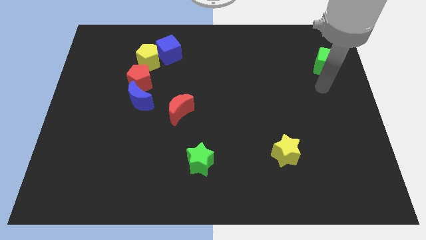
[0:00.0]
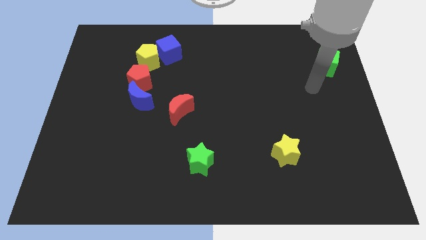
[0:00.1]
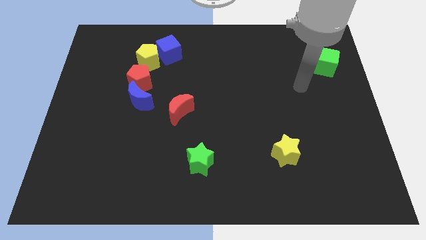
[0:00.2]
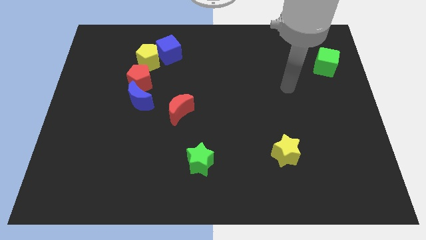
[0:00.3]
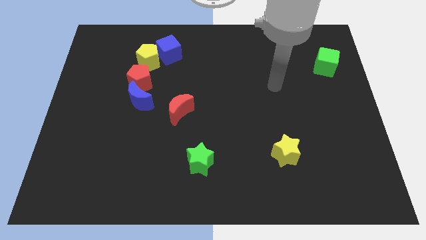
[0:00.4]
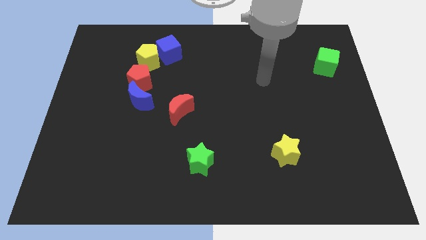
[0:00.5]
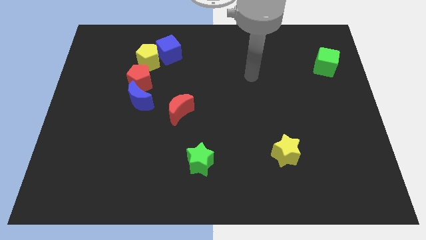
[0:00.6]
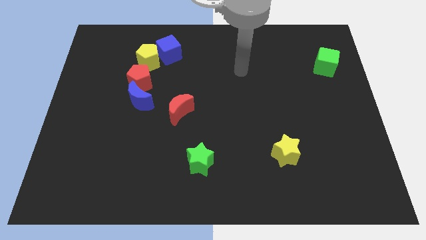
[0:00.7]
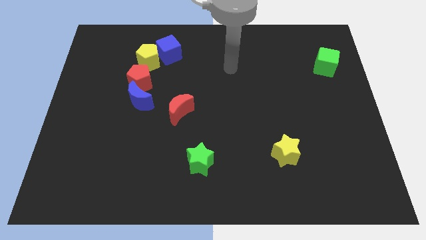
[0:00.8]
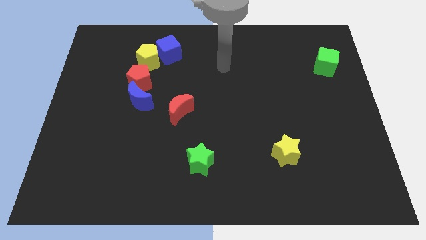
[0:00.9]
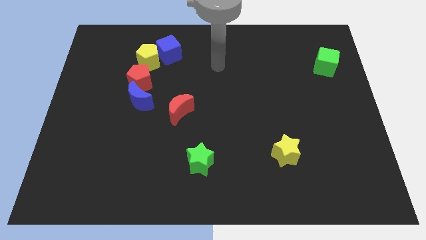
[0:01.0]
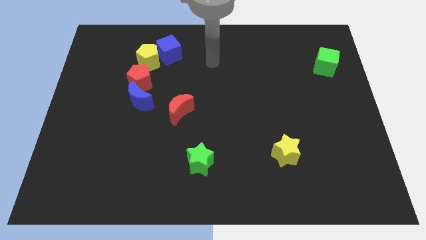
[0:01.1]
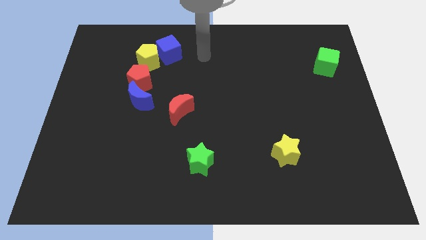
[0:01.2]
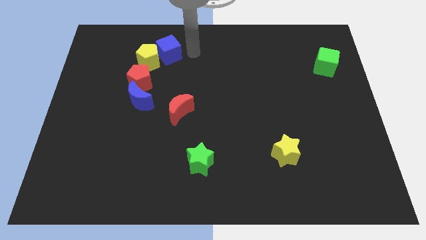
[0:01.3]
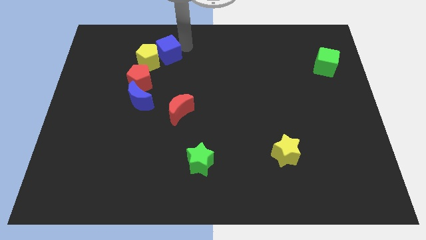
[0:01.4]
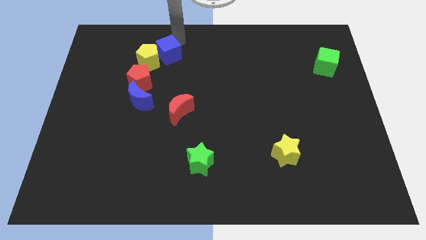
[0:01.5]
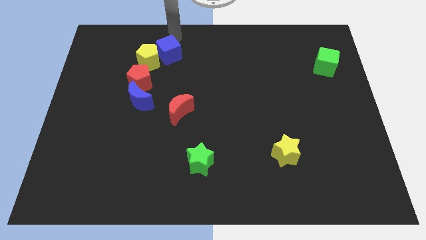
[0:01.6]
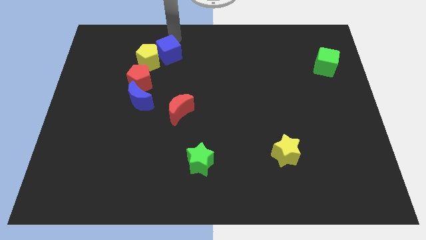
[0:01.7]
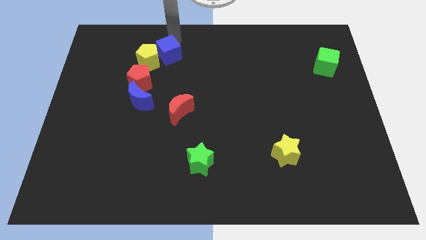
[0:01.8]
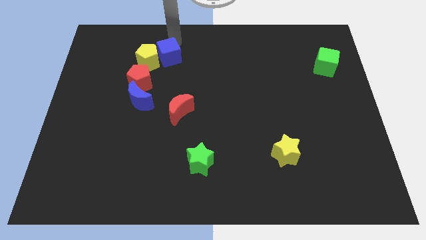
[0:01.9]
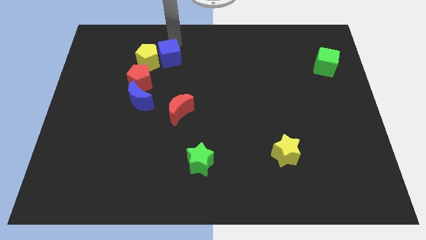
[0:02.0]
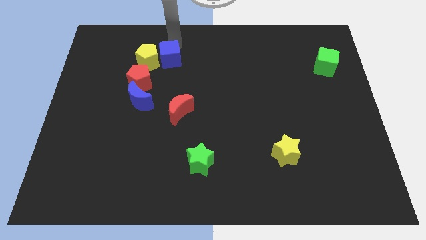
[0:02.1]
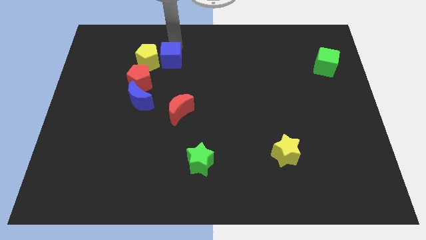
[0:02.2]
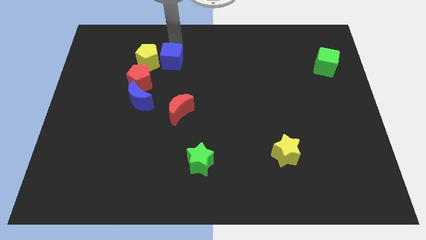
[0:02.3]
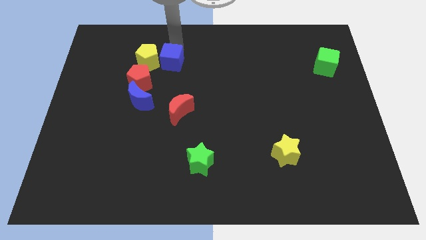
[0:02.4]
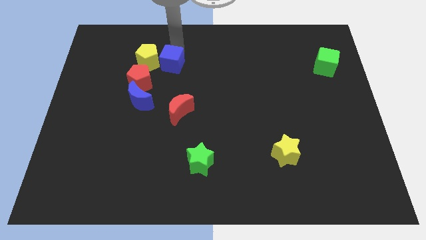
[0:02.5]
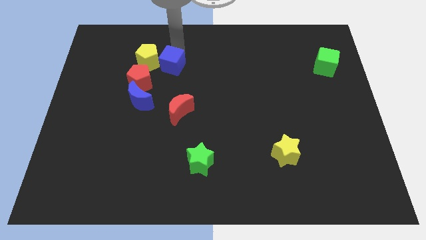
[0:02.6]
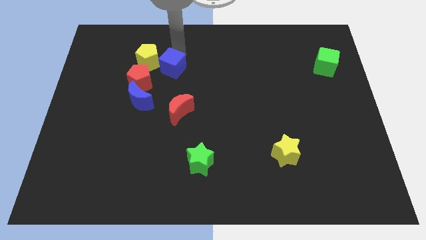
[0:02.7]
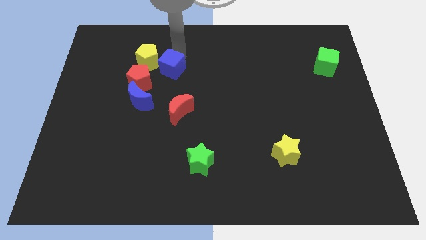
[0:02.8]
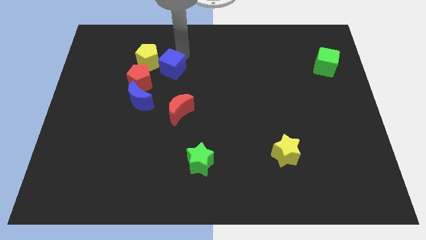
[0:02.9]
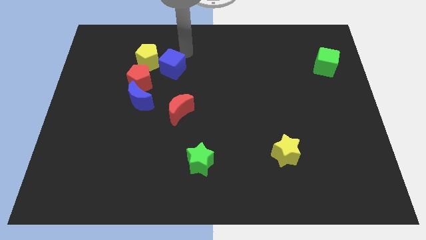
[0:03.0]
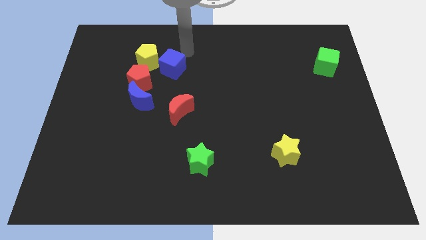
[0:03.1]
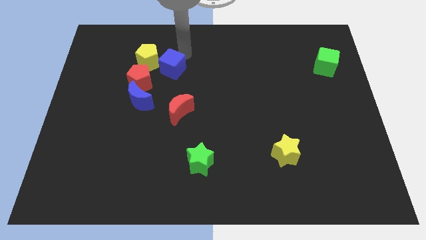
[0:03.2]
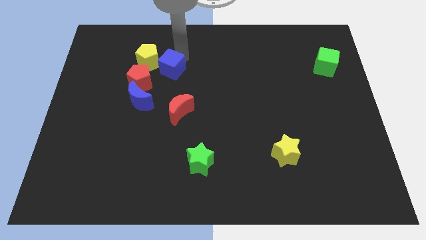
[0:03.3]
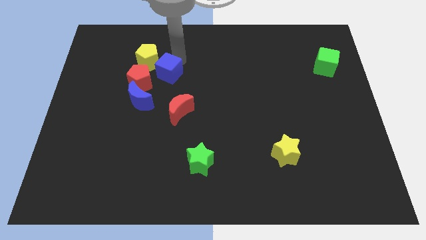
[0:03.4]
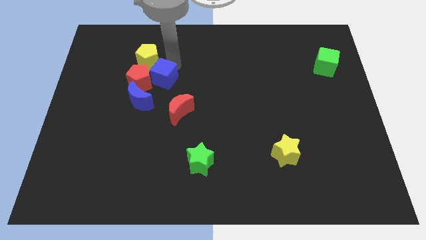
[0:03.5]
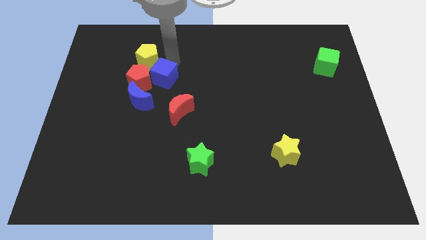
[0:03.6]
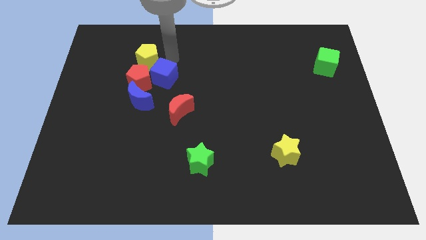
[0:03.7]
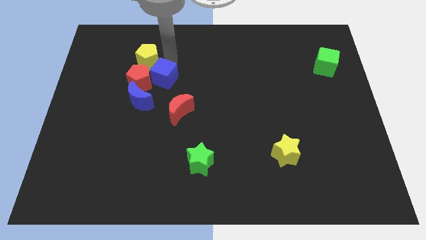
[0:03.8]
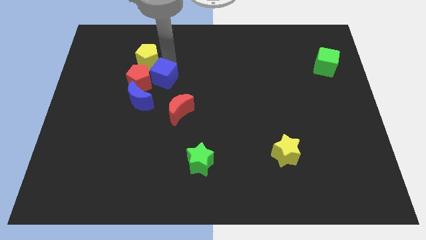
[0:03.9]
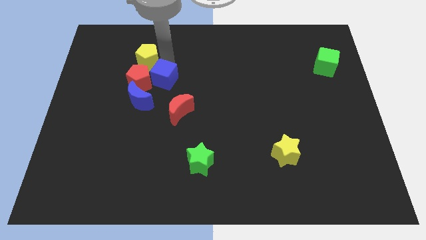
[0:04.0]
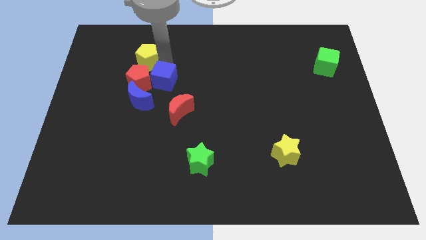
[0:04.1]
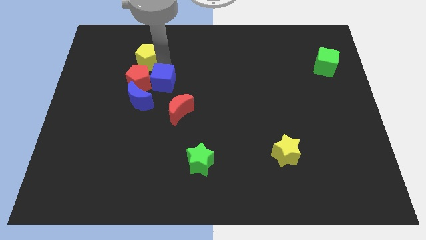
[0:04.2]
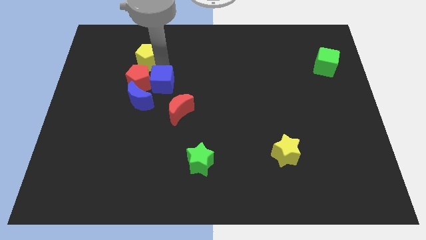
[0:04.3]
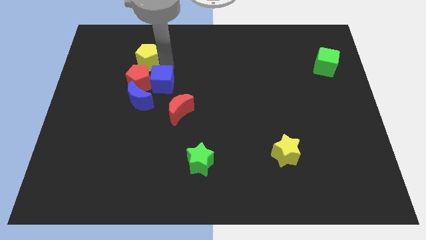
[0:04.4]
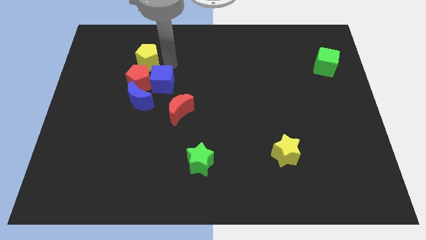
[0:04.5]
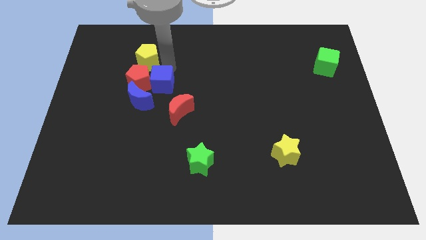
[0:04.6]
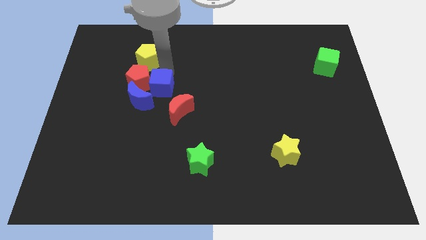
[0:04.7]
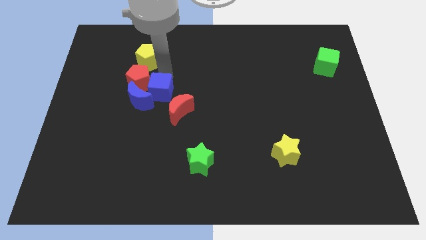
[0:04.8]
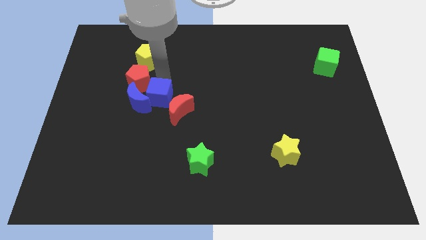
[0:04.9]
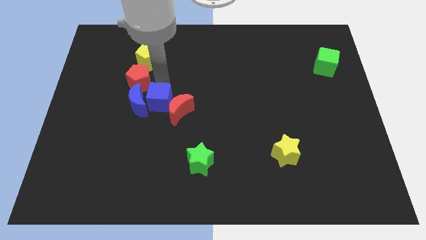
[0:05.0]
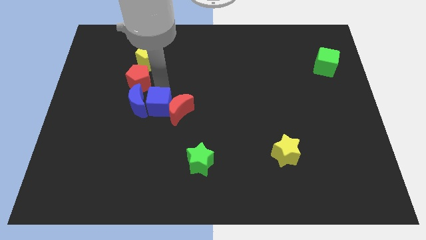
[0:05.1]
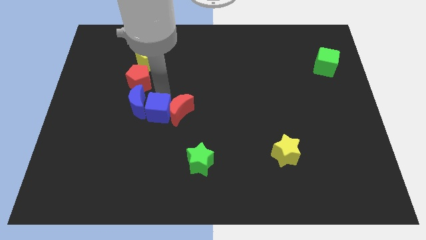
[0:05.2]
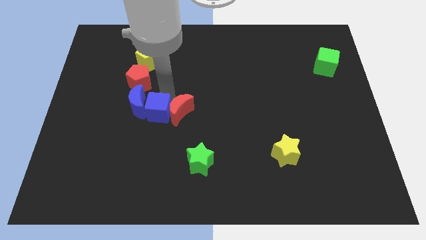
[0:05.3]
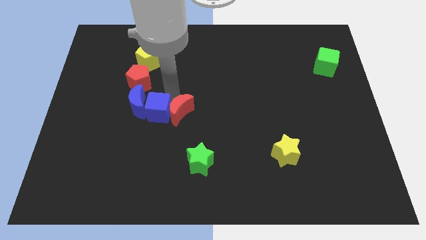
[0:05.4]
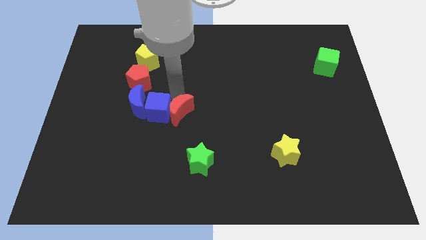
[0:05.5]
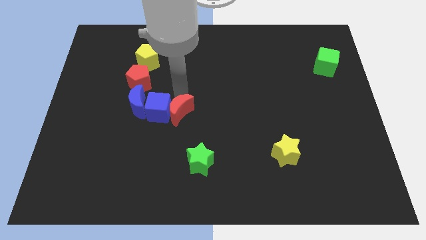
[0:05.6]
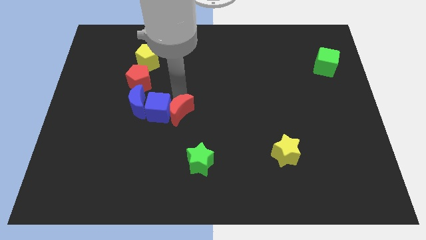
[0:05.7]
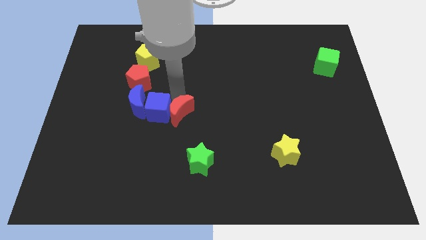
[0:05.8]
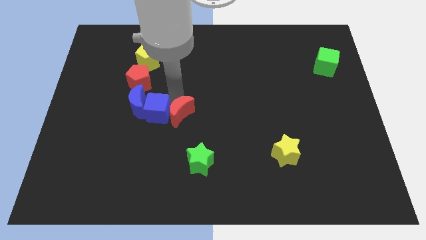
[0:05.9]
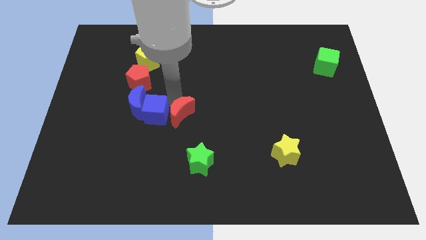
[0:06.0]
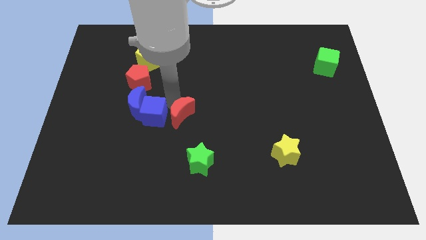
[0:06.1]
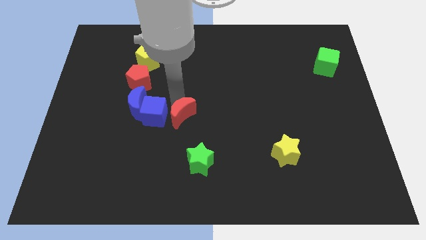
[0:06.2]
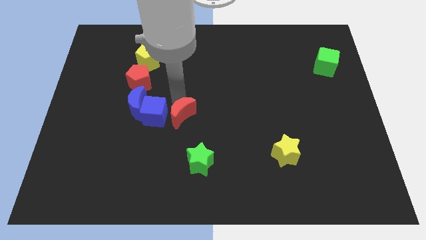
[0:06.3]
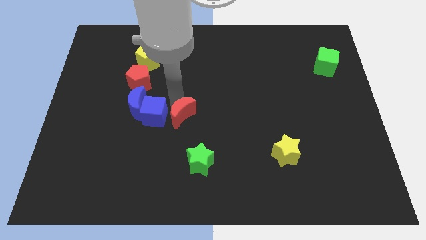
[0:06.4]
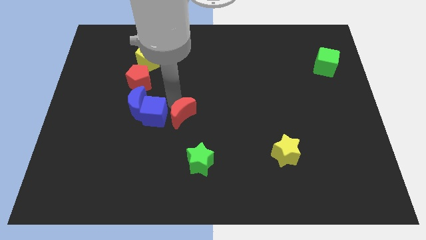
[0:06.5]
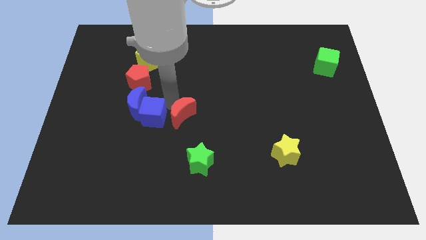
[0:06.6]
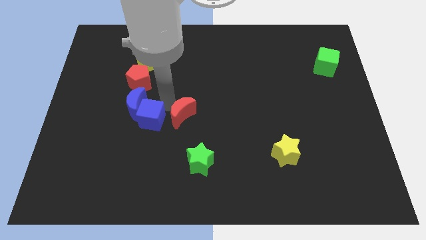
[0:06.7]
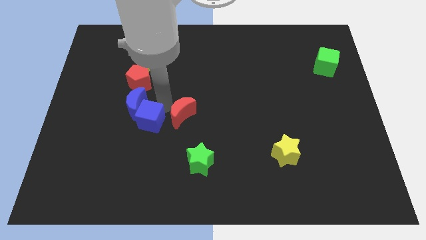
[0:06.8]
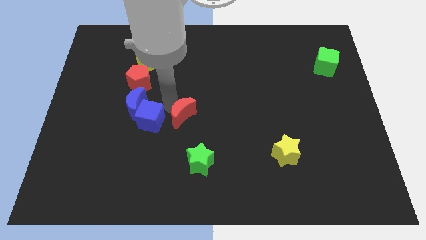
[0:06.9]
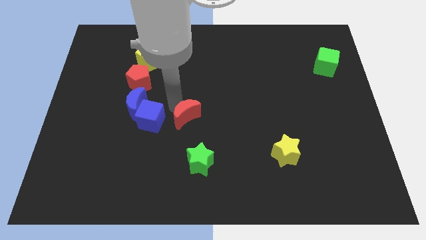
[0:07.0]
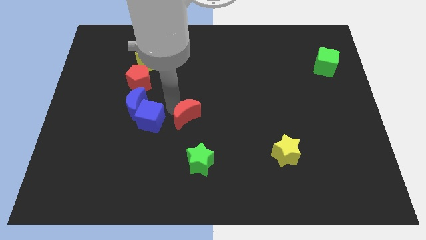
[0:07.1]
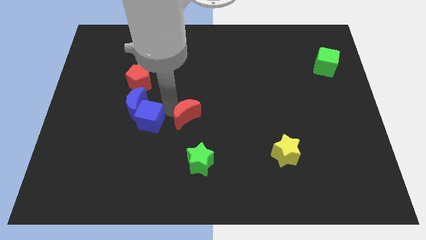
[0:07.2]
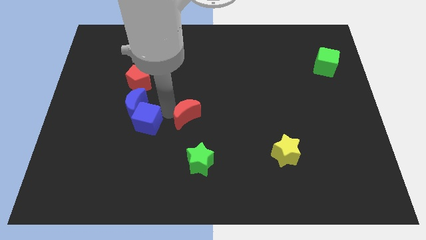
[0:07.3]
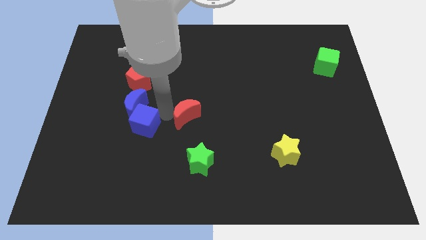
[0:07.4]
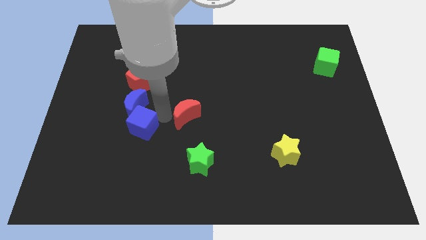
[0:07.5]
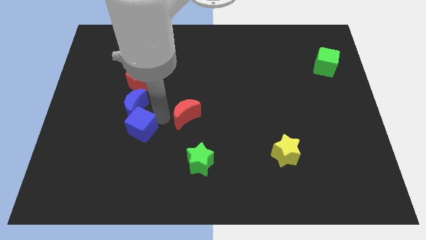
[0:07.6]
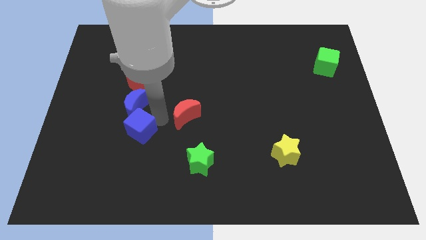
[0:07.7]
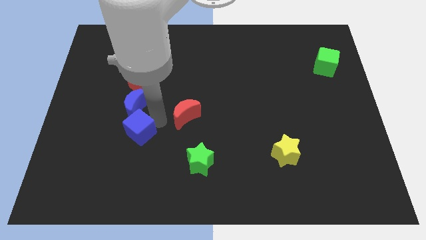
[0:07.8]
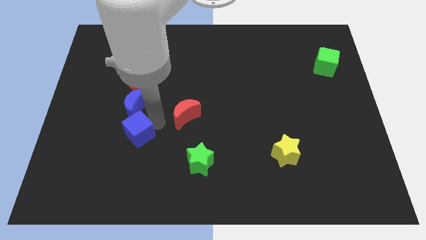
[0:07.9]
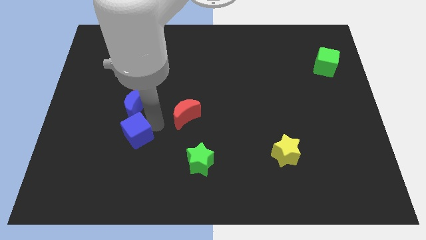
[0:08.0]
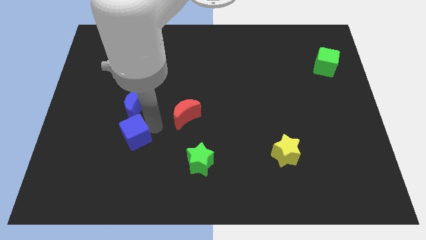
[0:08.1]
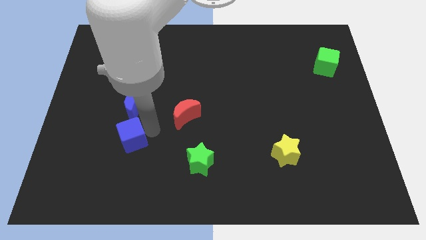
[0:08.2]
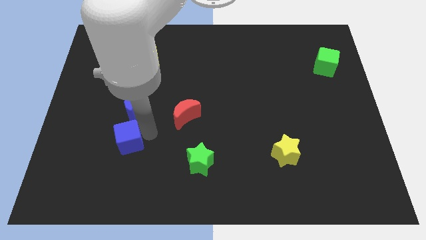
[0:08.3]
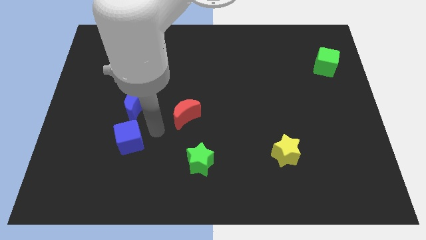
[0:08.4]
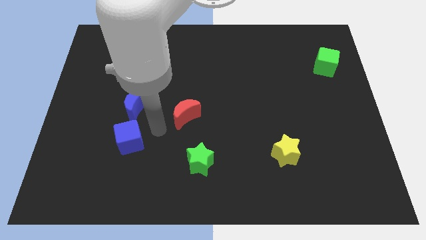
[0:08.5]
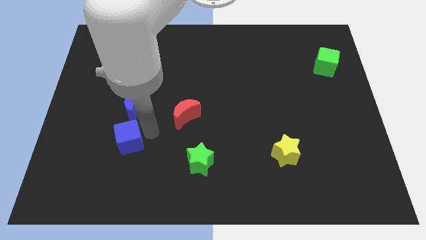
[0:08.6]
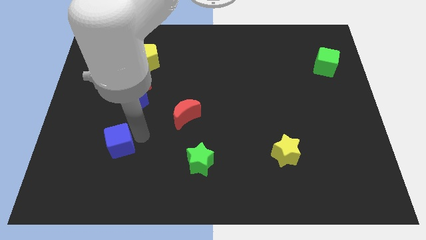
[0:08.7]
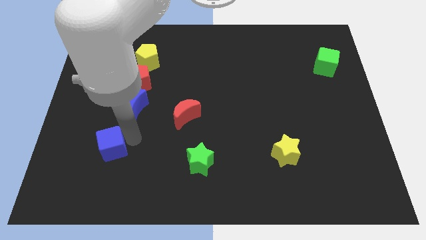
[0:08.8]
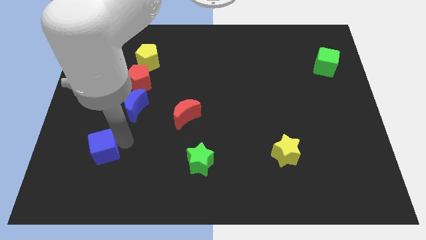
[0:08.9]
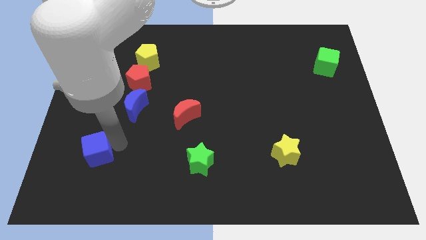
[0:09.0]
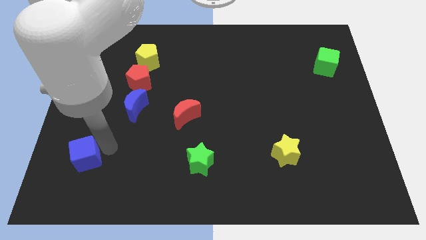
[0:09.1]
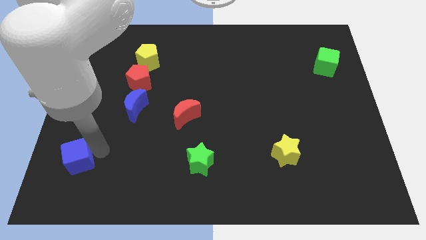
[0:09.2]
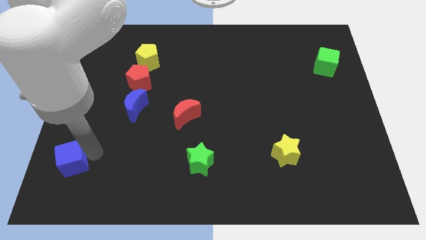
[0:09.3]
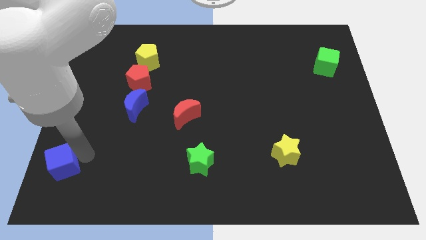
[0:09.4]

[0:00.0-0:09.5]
put the blue cube to the bottom left corner
